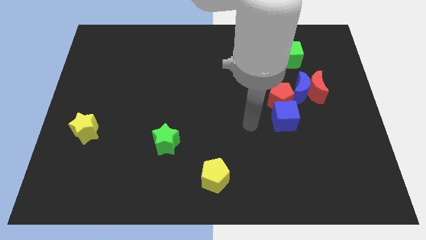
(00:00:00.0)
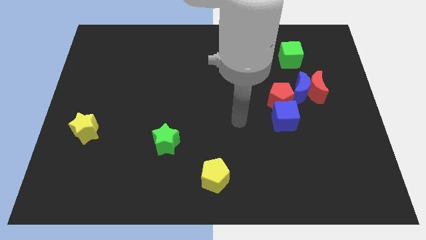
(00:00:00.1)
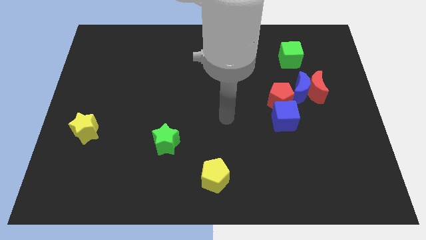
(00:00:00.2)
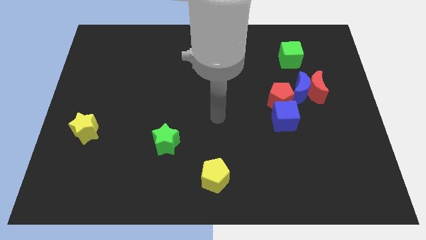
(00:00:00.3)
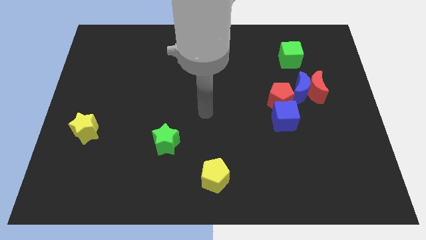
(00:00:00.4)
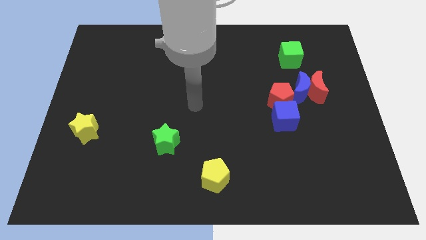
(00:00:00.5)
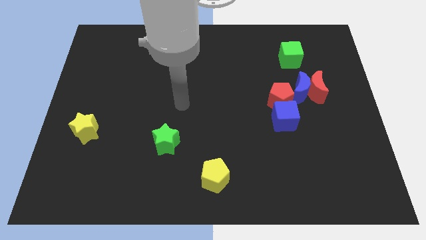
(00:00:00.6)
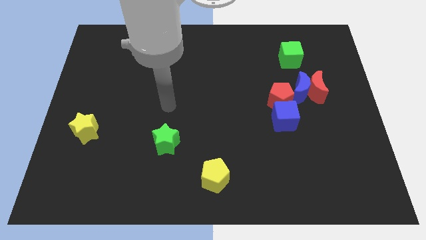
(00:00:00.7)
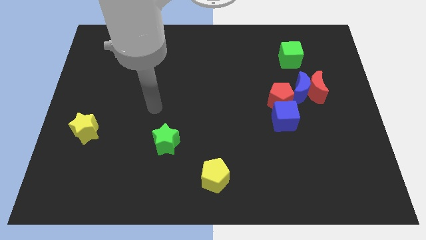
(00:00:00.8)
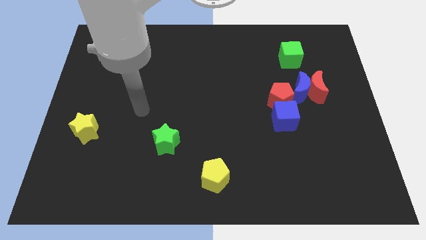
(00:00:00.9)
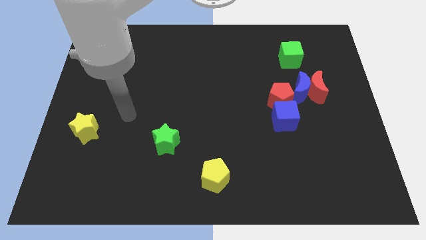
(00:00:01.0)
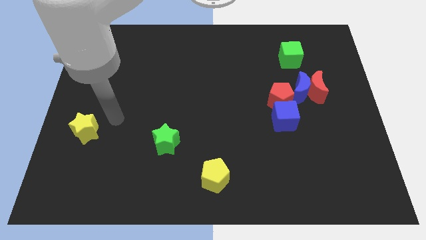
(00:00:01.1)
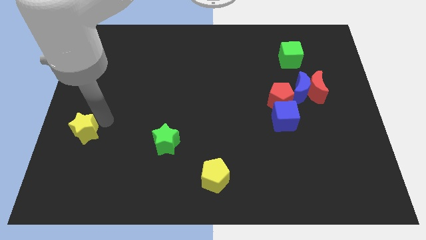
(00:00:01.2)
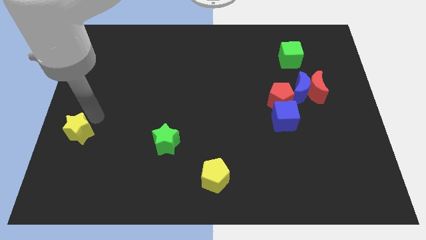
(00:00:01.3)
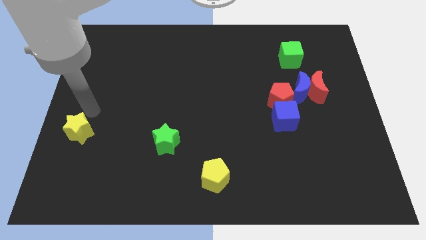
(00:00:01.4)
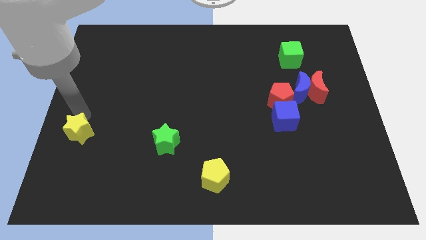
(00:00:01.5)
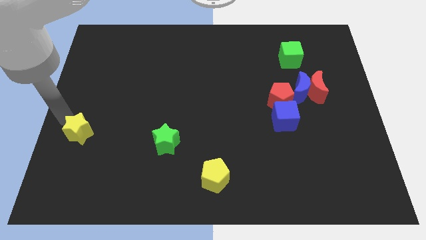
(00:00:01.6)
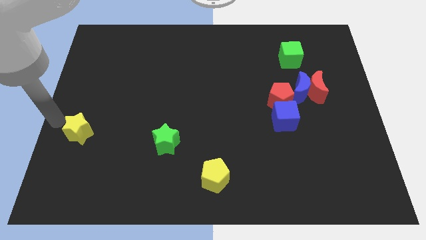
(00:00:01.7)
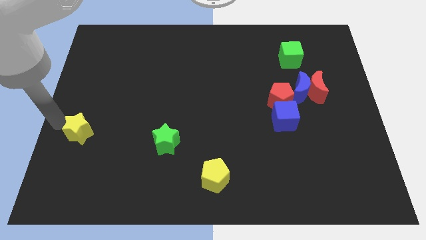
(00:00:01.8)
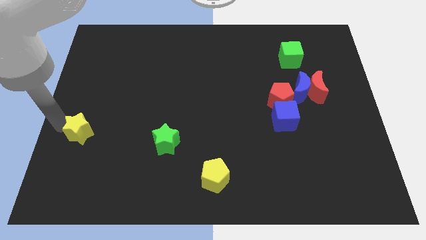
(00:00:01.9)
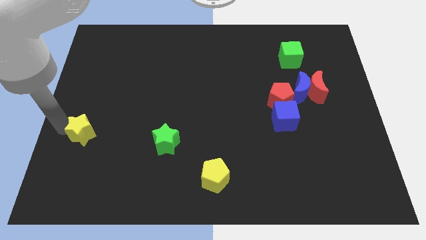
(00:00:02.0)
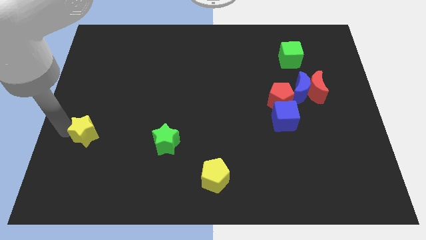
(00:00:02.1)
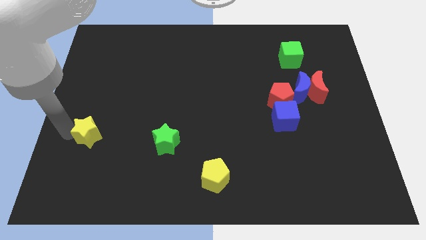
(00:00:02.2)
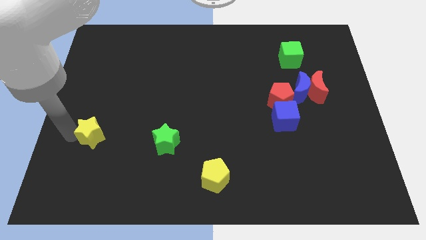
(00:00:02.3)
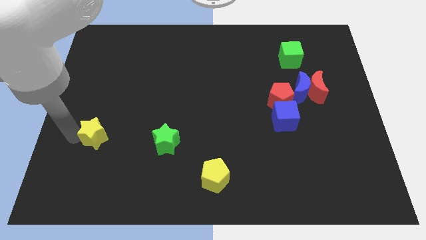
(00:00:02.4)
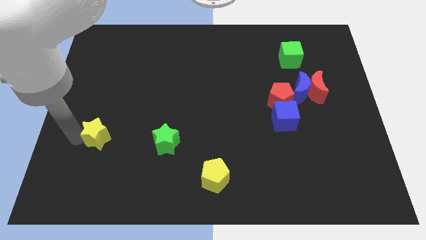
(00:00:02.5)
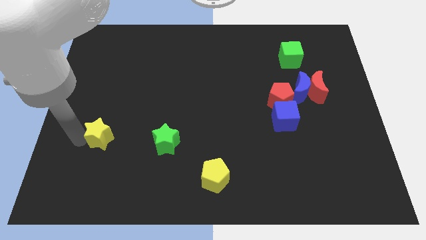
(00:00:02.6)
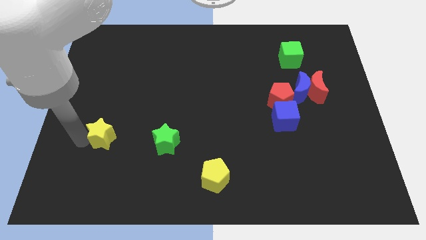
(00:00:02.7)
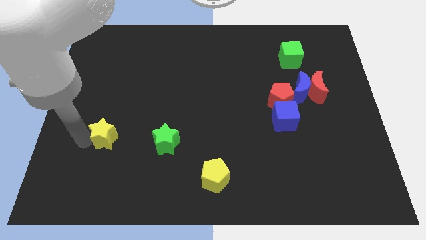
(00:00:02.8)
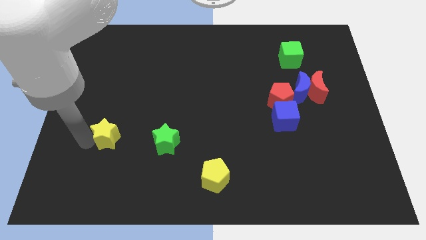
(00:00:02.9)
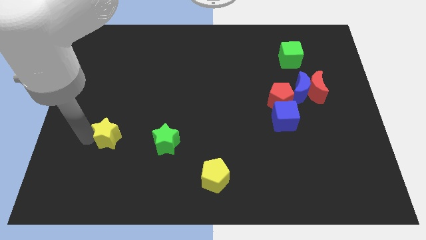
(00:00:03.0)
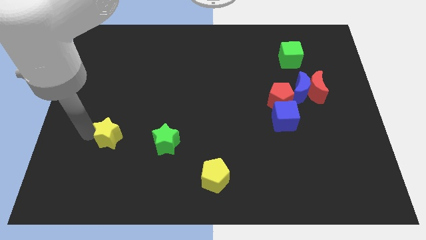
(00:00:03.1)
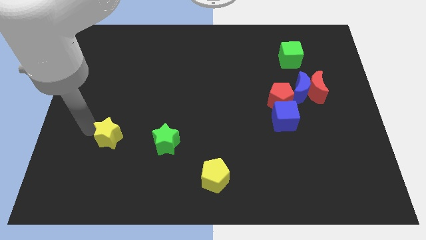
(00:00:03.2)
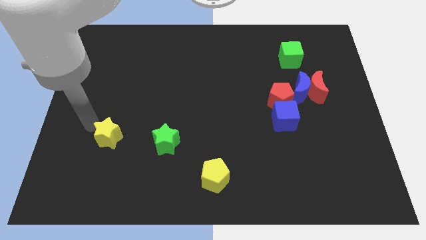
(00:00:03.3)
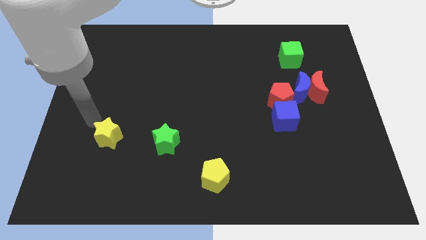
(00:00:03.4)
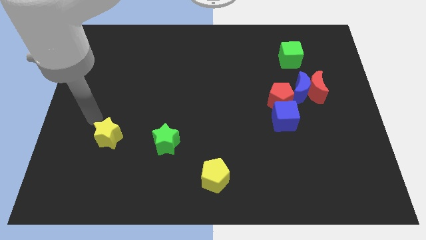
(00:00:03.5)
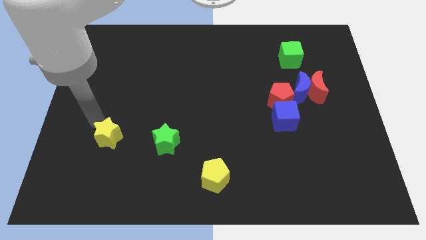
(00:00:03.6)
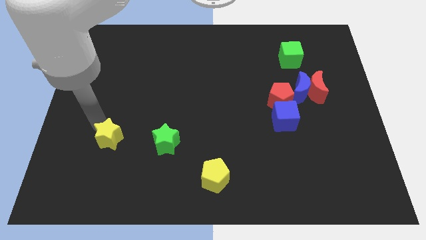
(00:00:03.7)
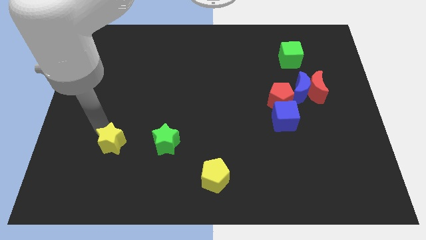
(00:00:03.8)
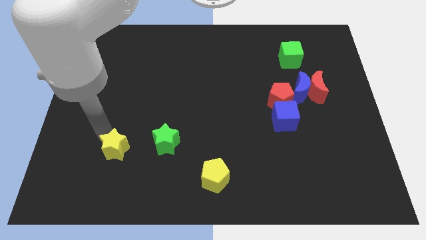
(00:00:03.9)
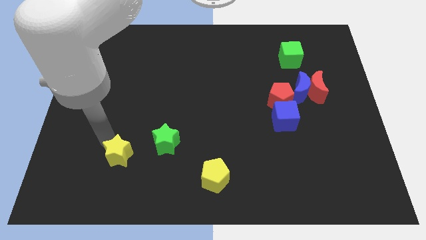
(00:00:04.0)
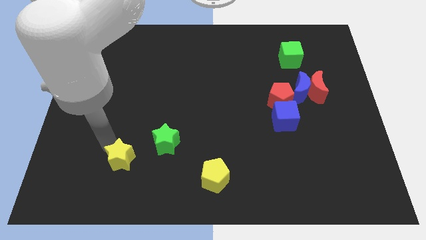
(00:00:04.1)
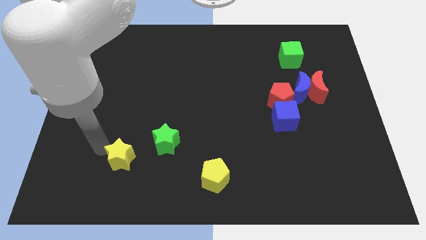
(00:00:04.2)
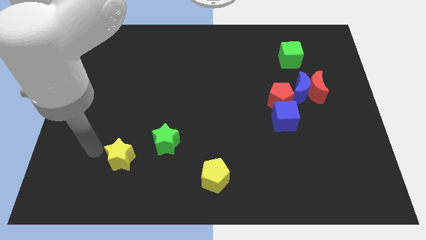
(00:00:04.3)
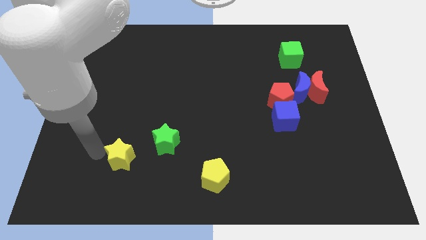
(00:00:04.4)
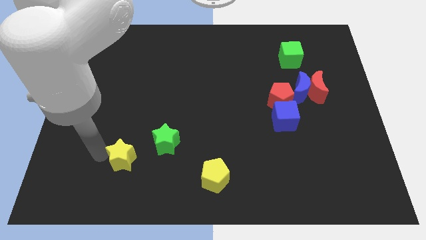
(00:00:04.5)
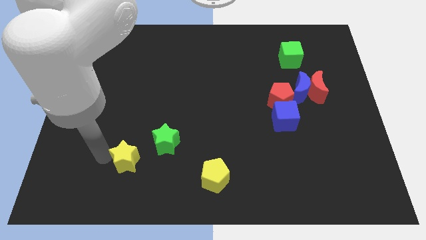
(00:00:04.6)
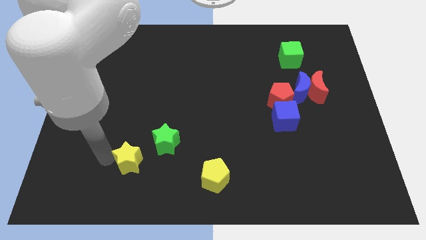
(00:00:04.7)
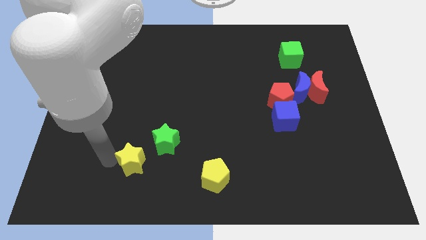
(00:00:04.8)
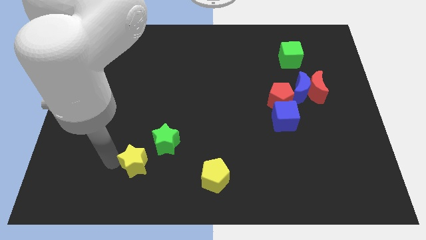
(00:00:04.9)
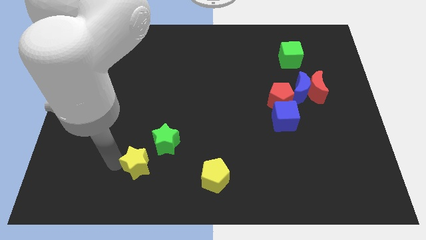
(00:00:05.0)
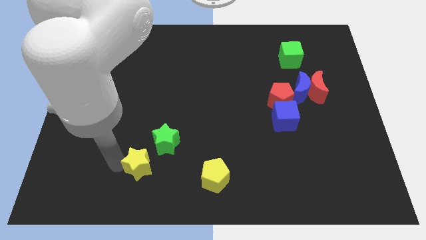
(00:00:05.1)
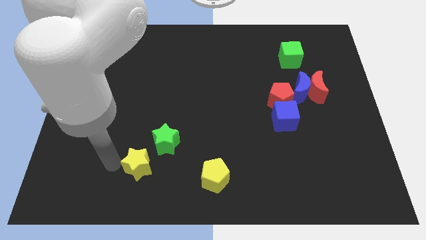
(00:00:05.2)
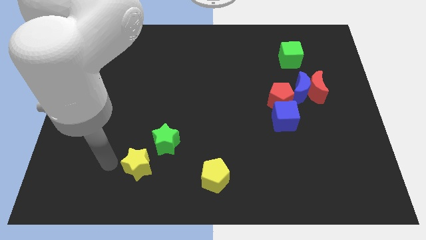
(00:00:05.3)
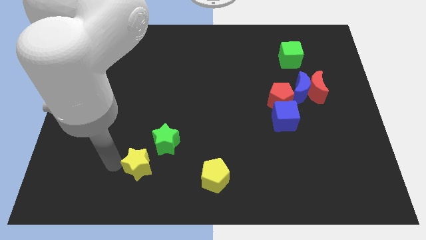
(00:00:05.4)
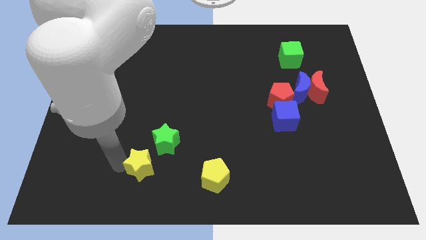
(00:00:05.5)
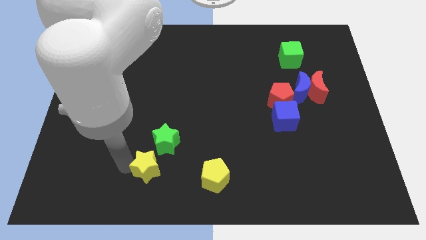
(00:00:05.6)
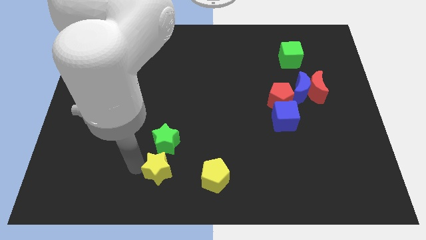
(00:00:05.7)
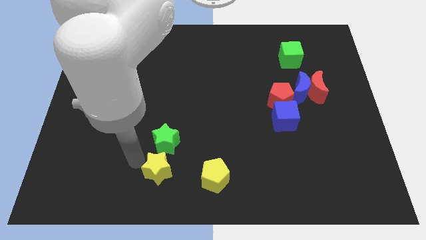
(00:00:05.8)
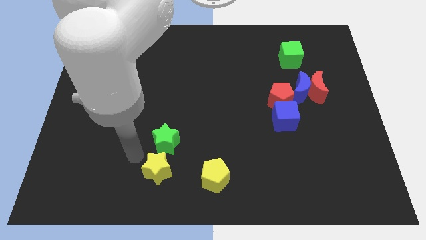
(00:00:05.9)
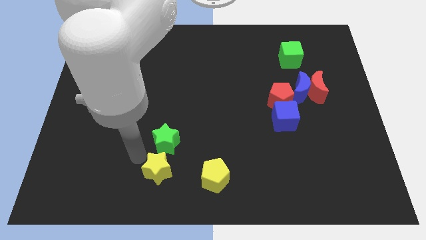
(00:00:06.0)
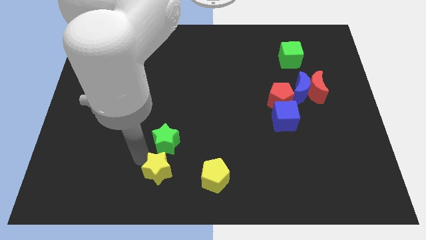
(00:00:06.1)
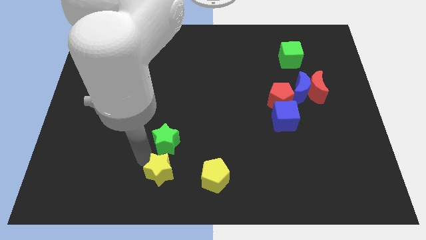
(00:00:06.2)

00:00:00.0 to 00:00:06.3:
move the yellow star to the bottom

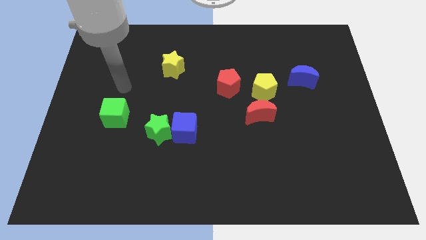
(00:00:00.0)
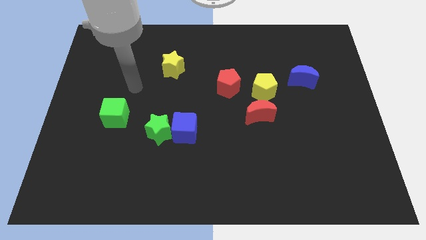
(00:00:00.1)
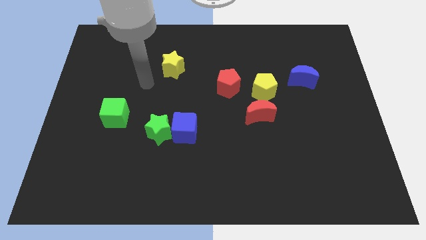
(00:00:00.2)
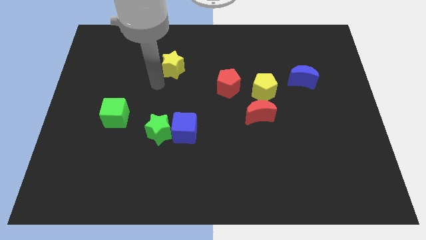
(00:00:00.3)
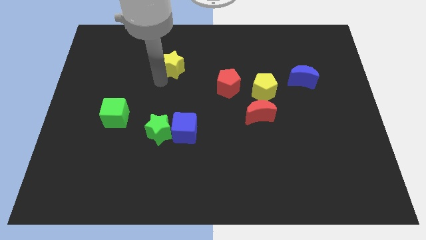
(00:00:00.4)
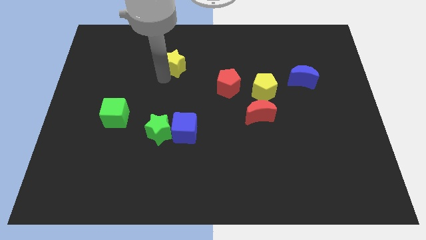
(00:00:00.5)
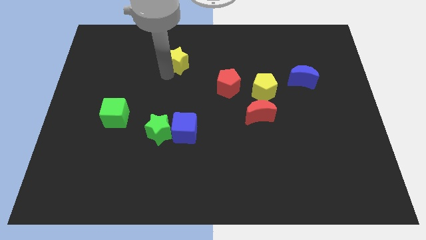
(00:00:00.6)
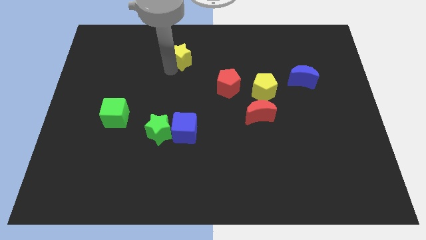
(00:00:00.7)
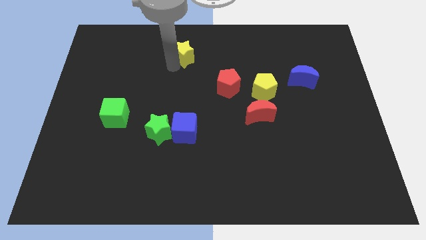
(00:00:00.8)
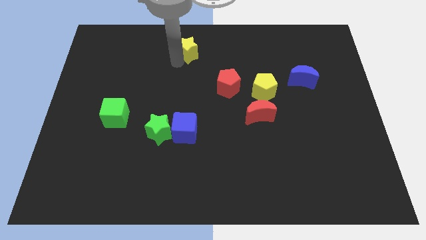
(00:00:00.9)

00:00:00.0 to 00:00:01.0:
push the yellow star to the top
